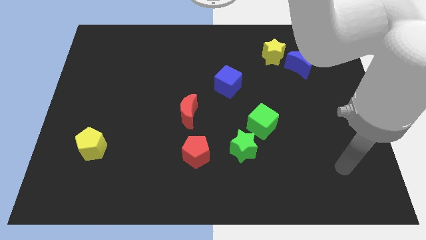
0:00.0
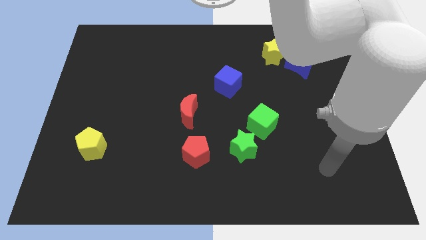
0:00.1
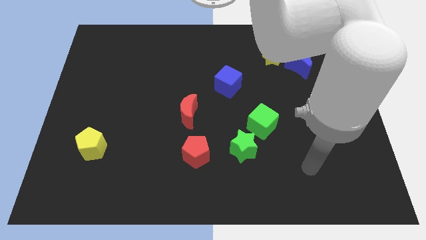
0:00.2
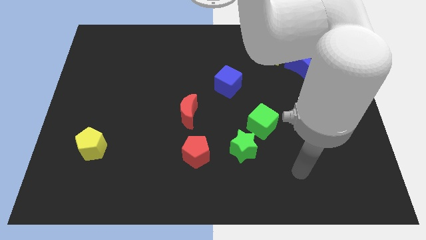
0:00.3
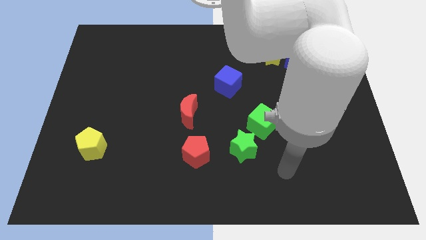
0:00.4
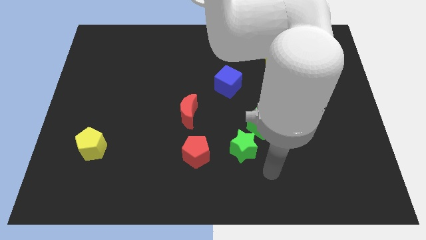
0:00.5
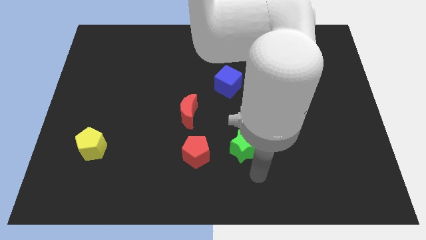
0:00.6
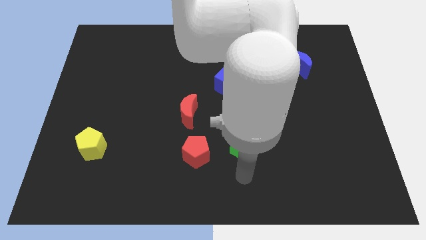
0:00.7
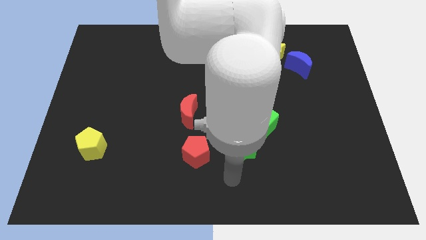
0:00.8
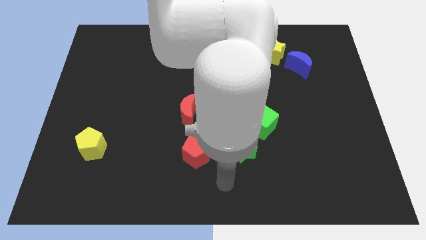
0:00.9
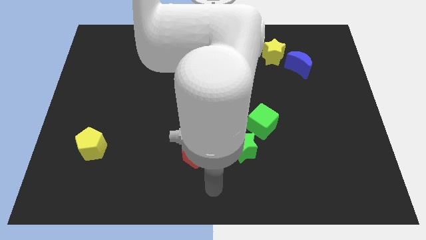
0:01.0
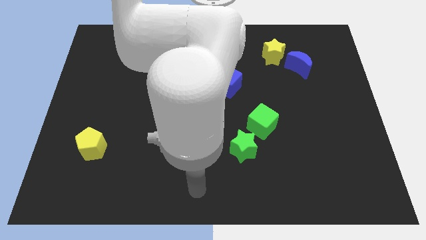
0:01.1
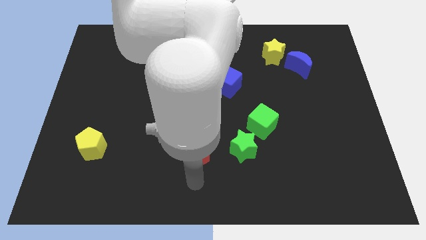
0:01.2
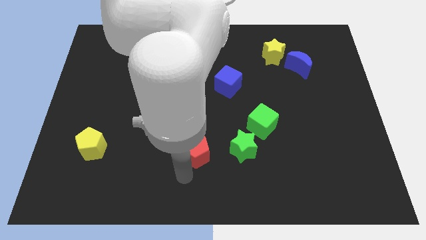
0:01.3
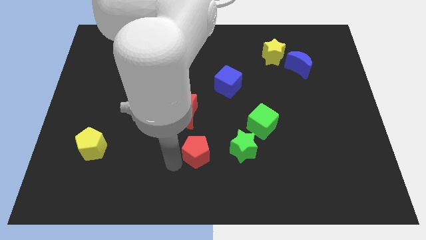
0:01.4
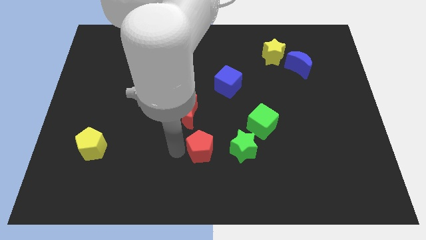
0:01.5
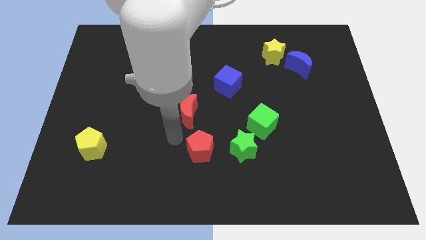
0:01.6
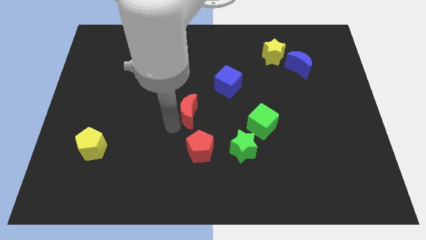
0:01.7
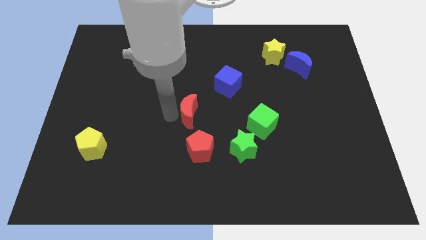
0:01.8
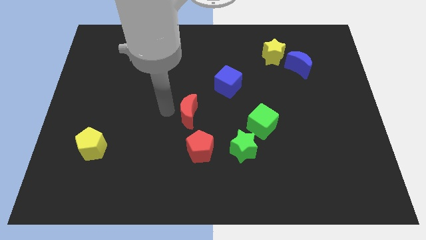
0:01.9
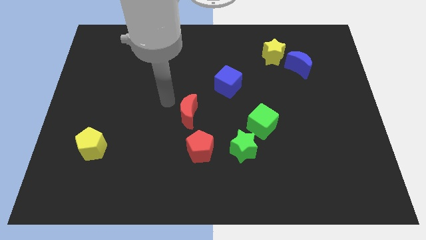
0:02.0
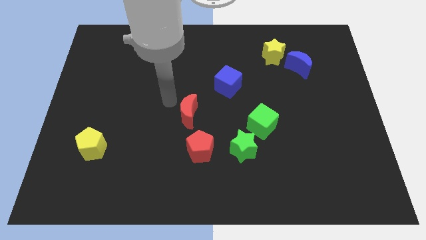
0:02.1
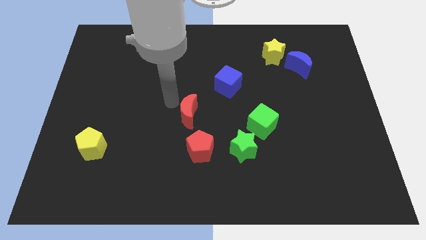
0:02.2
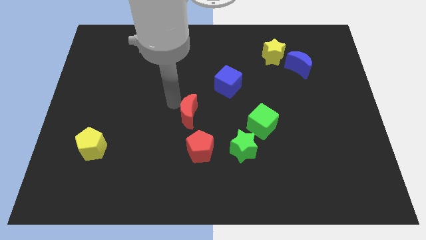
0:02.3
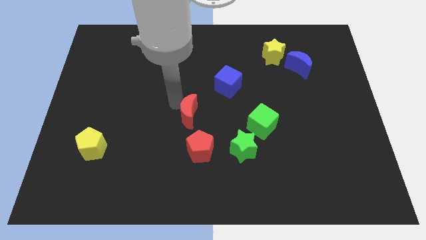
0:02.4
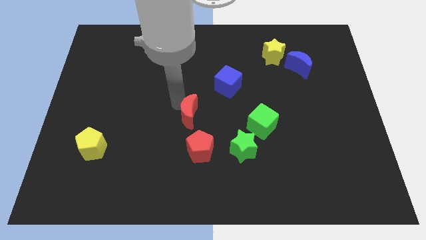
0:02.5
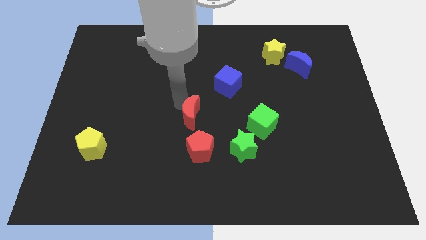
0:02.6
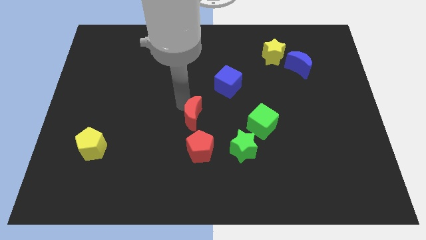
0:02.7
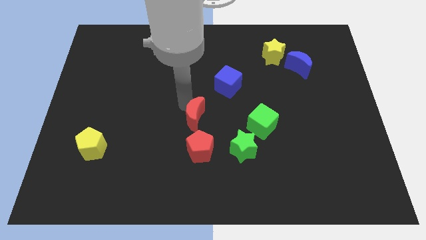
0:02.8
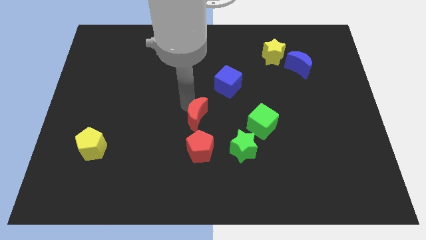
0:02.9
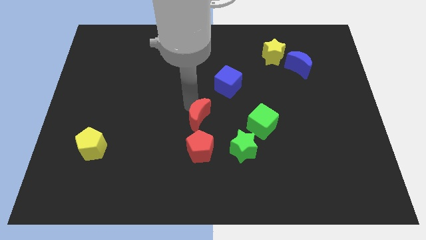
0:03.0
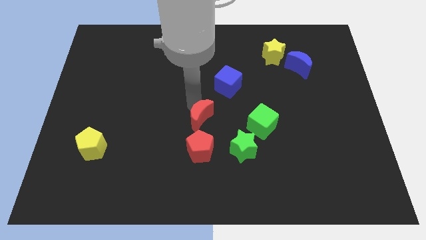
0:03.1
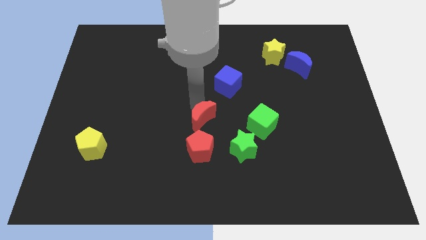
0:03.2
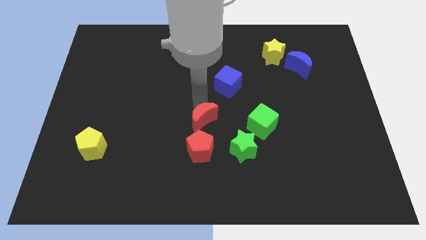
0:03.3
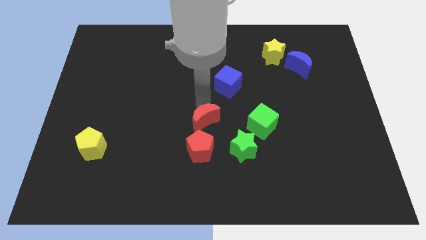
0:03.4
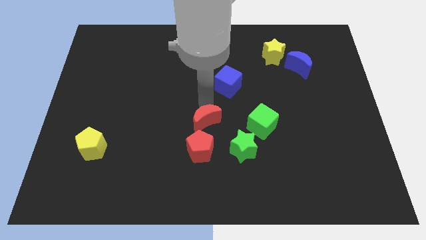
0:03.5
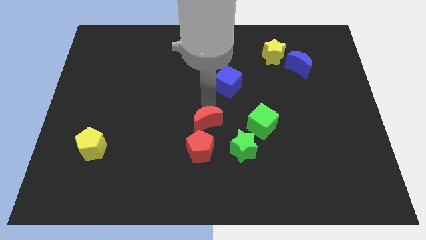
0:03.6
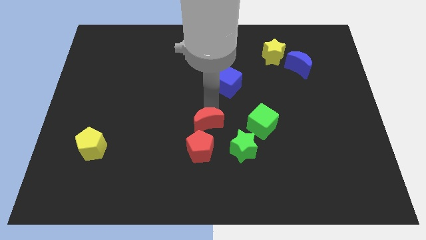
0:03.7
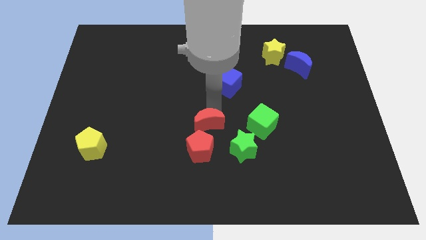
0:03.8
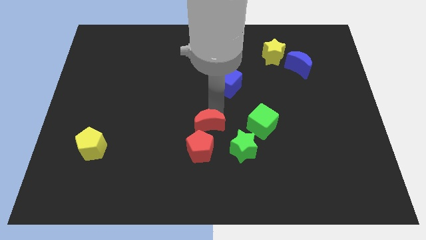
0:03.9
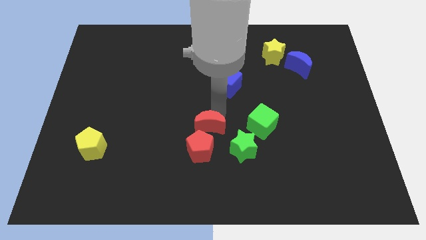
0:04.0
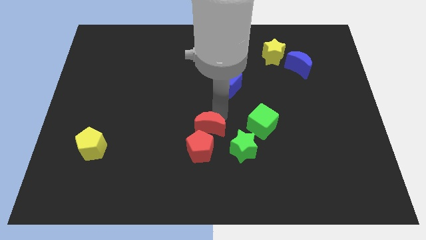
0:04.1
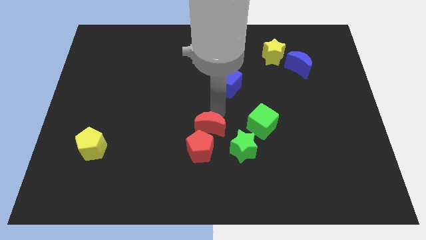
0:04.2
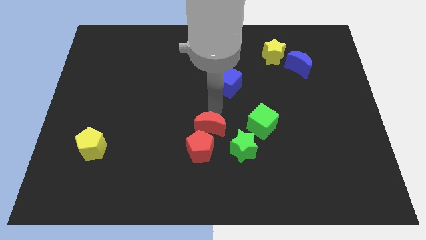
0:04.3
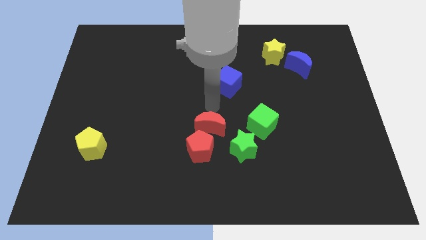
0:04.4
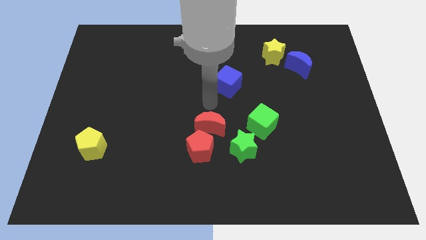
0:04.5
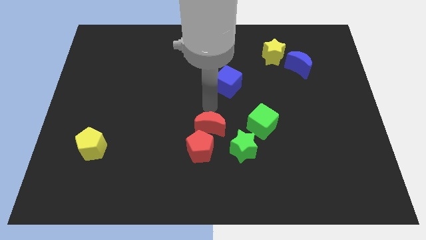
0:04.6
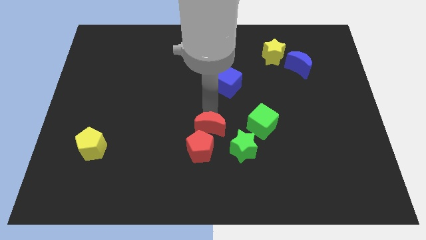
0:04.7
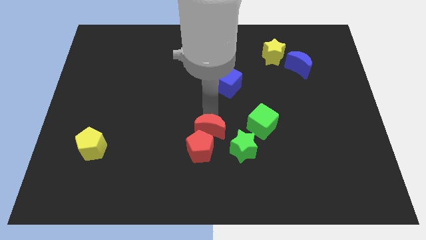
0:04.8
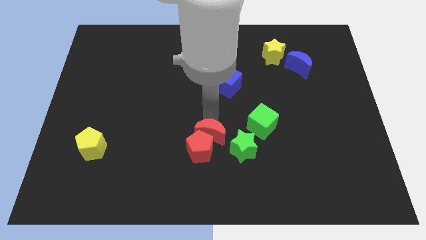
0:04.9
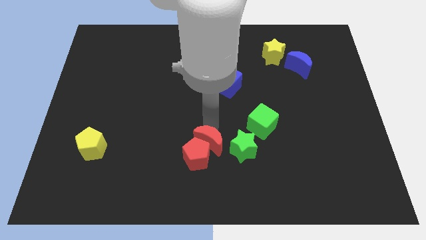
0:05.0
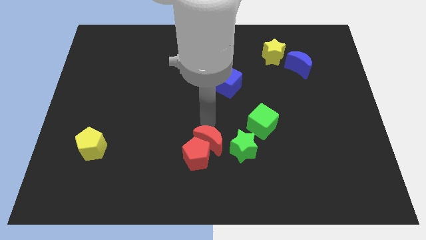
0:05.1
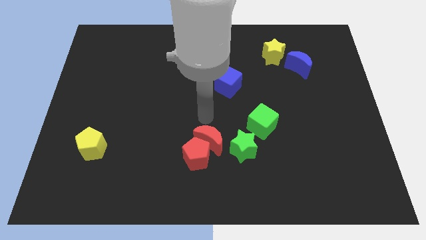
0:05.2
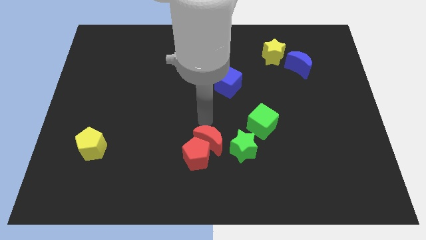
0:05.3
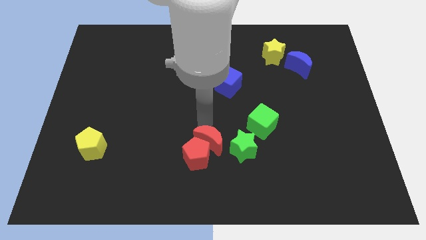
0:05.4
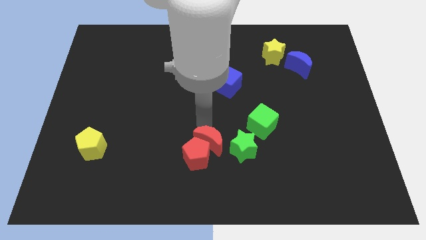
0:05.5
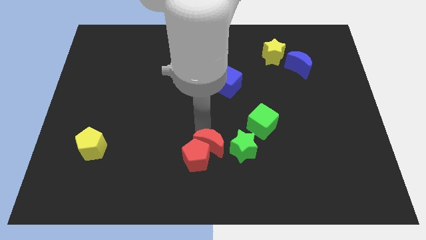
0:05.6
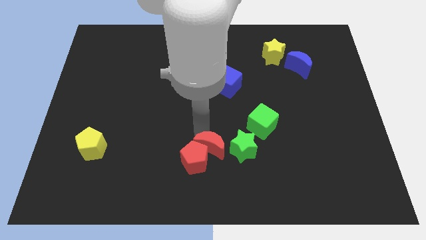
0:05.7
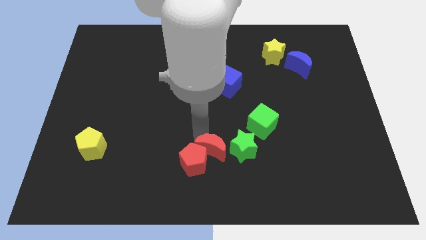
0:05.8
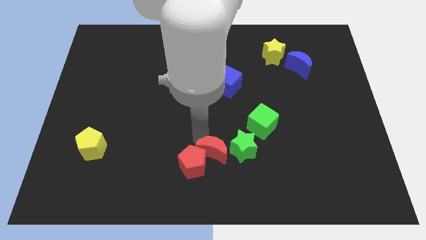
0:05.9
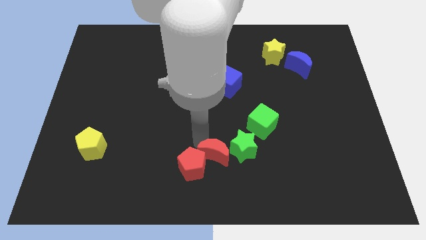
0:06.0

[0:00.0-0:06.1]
slide the red moon to the bottom side

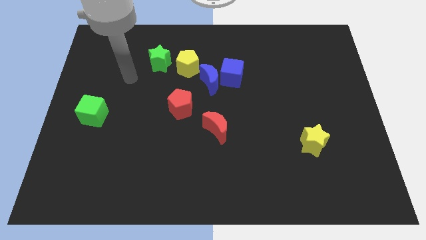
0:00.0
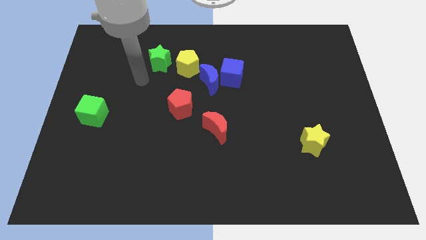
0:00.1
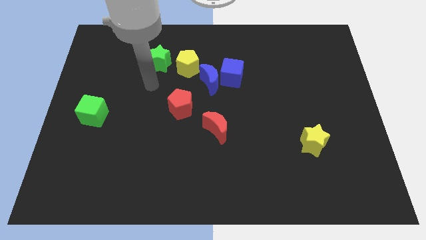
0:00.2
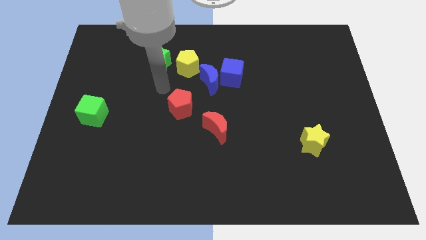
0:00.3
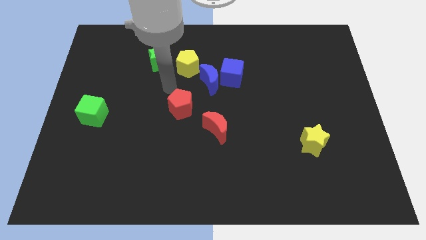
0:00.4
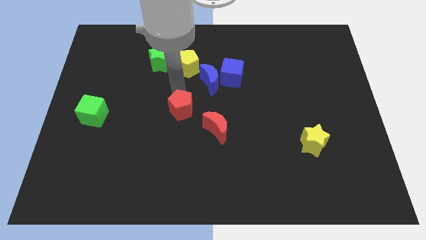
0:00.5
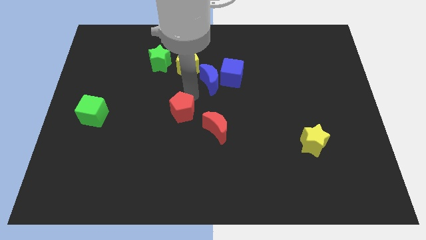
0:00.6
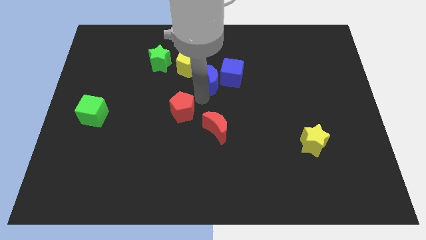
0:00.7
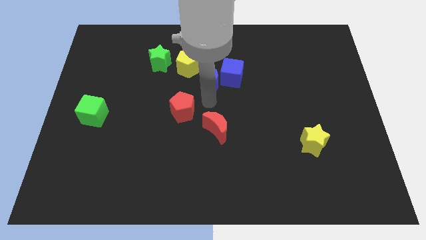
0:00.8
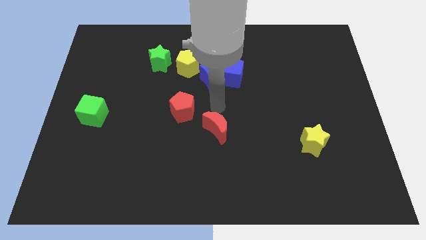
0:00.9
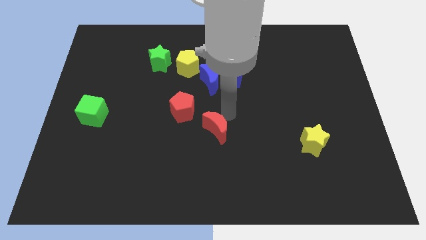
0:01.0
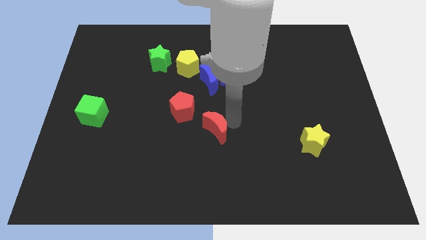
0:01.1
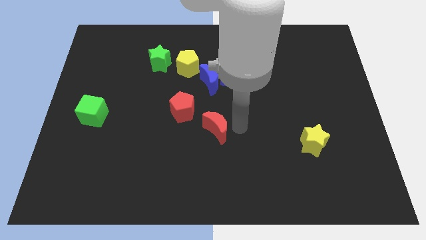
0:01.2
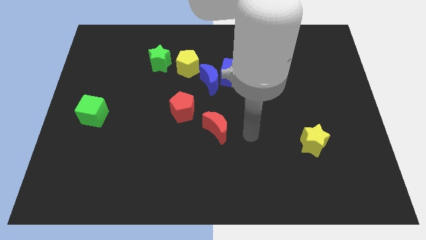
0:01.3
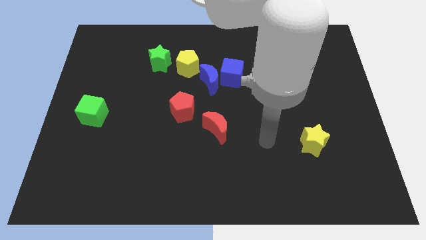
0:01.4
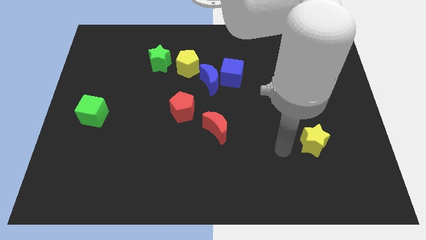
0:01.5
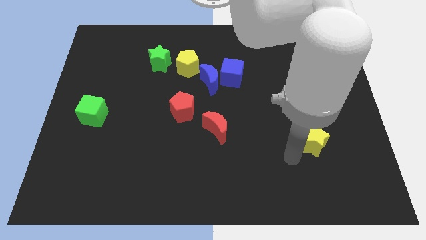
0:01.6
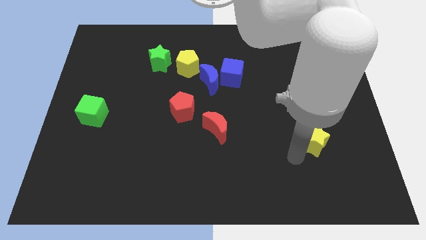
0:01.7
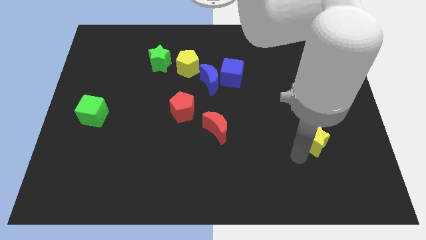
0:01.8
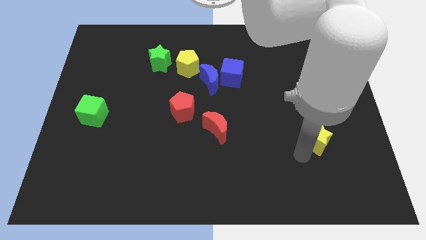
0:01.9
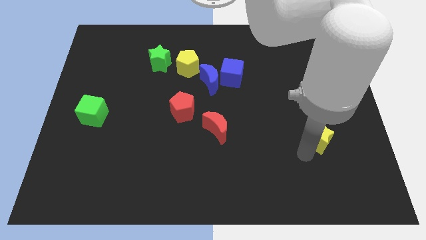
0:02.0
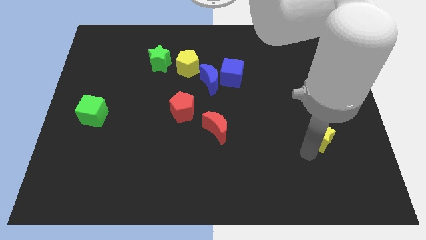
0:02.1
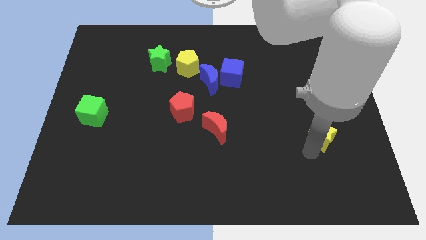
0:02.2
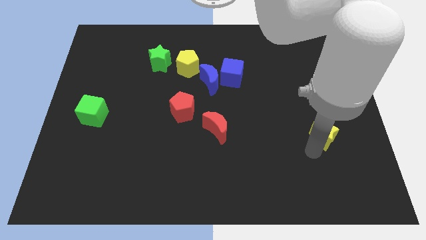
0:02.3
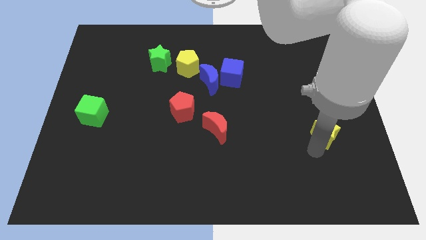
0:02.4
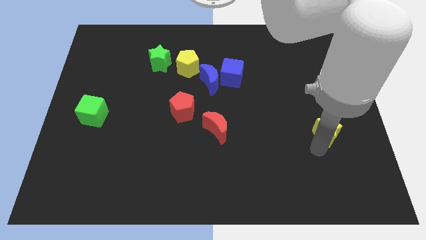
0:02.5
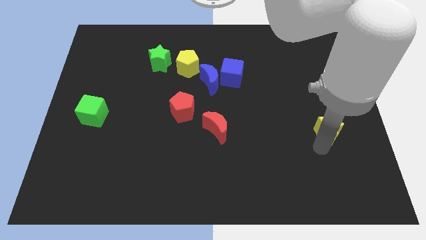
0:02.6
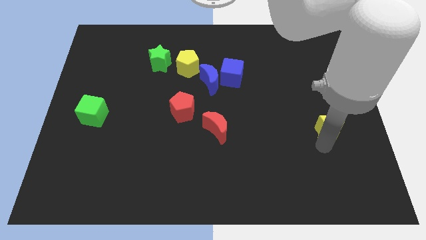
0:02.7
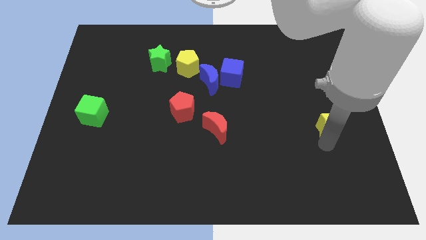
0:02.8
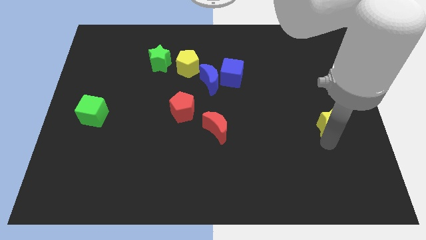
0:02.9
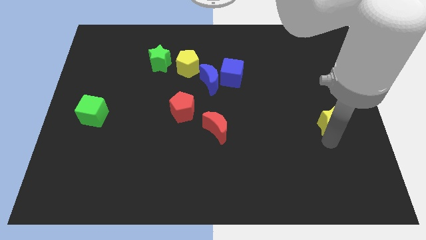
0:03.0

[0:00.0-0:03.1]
push the yellow star to the right side of the board
